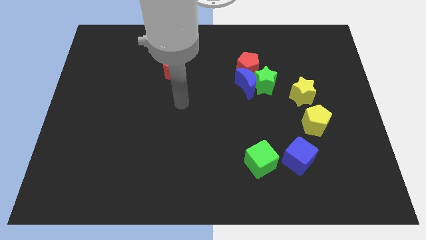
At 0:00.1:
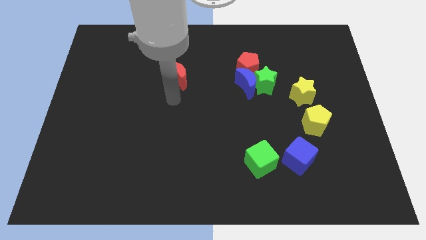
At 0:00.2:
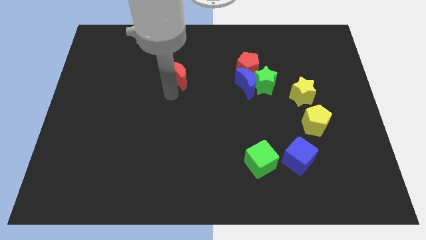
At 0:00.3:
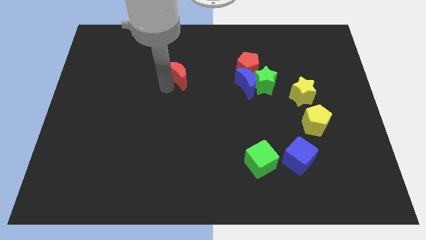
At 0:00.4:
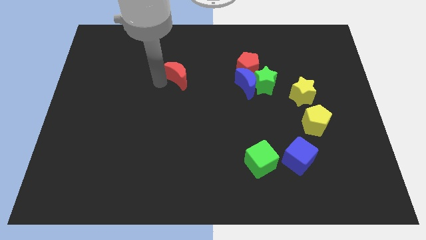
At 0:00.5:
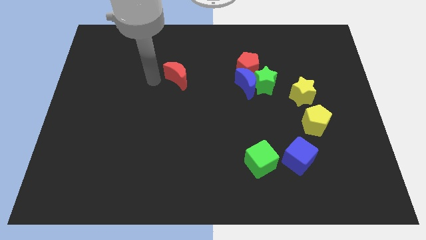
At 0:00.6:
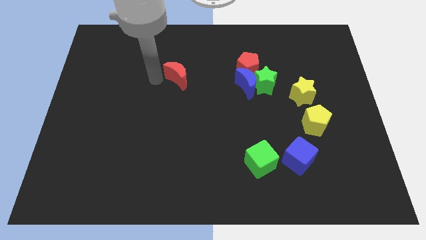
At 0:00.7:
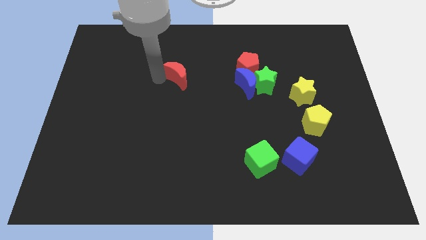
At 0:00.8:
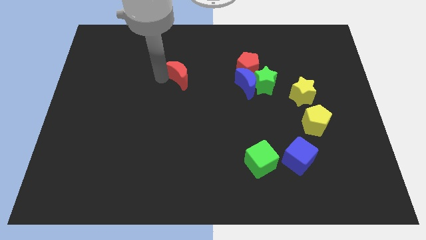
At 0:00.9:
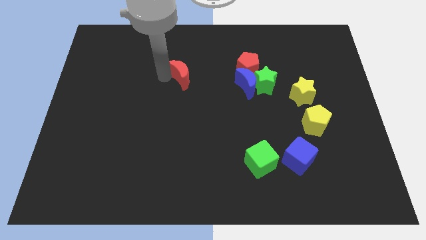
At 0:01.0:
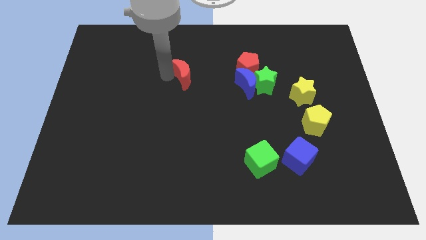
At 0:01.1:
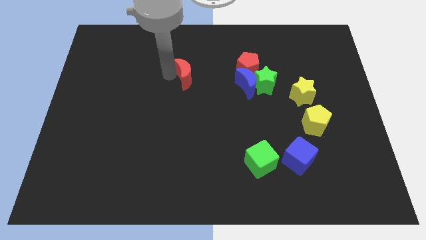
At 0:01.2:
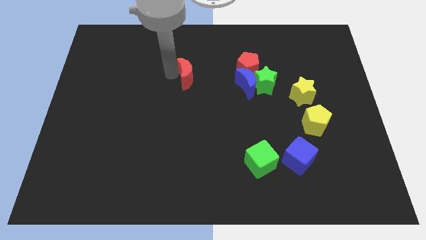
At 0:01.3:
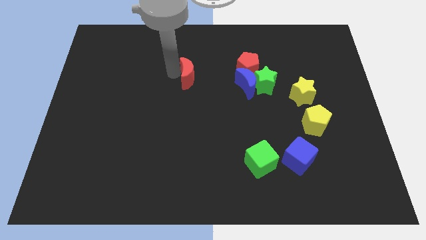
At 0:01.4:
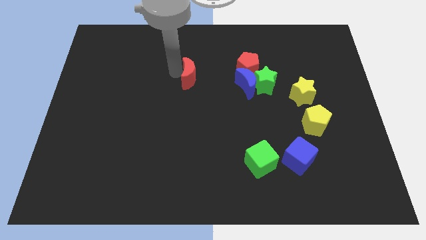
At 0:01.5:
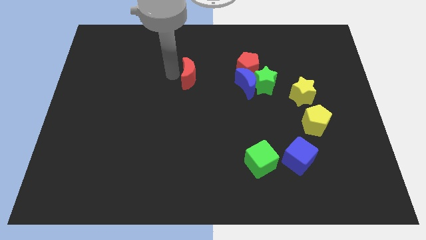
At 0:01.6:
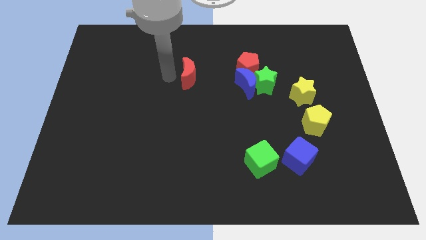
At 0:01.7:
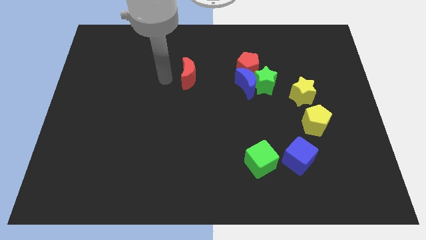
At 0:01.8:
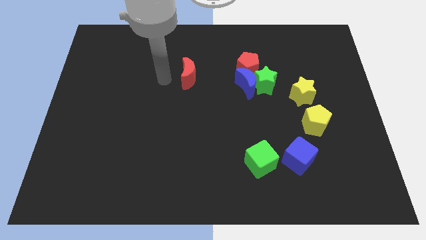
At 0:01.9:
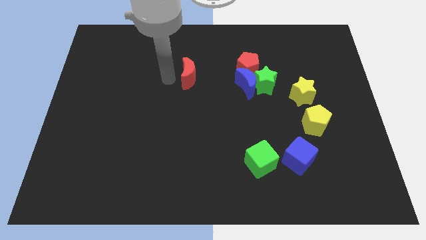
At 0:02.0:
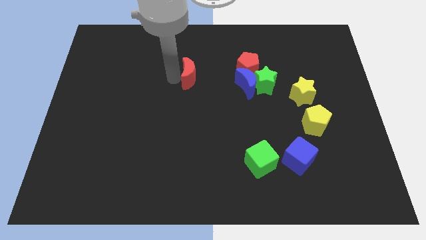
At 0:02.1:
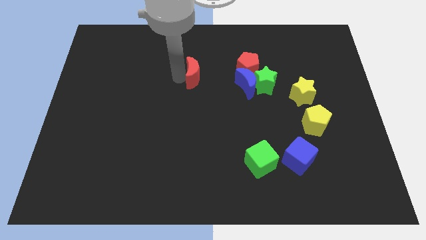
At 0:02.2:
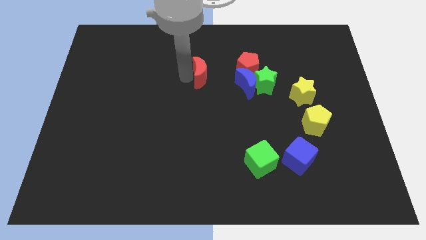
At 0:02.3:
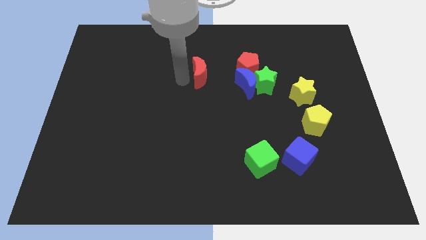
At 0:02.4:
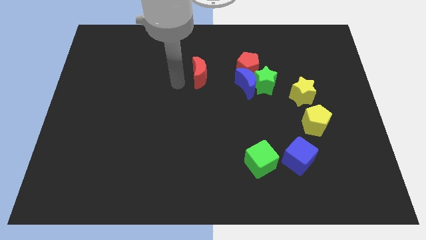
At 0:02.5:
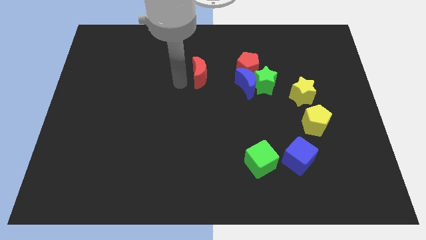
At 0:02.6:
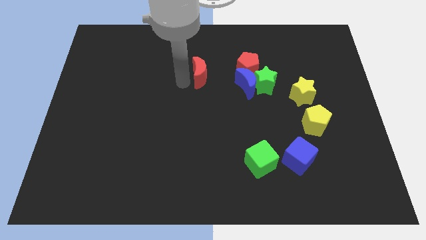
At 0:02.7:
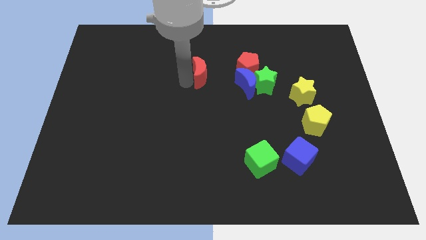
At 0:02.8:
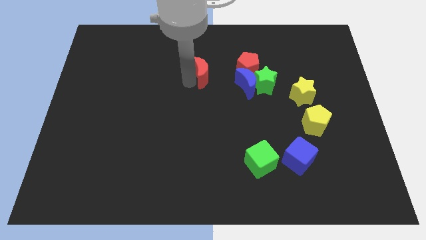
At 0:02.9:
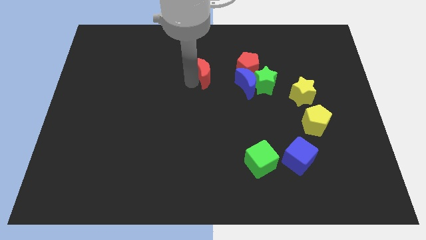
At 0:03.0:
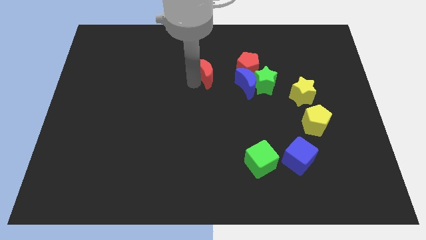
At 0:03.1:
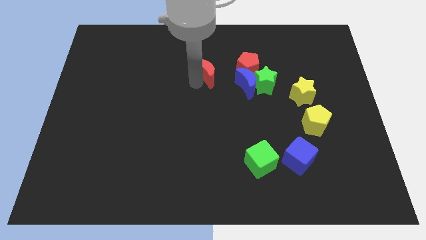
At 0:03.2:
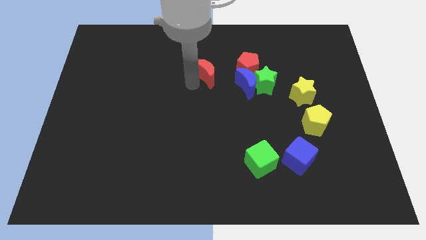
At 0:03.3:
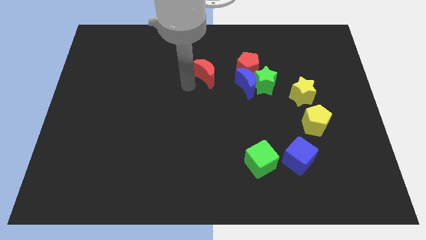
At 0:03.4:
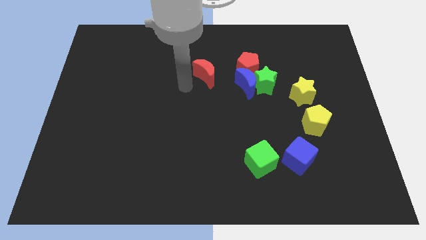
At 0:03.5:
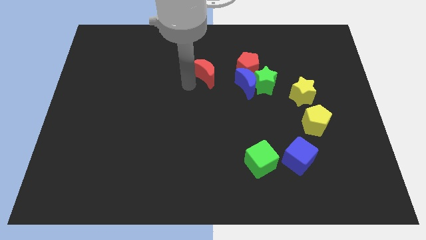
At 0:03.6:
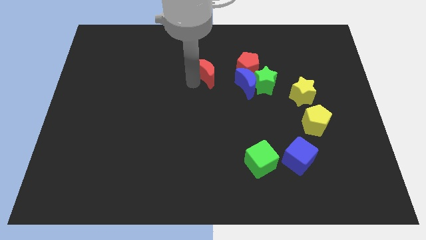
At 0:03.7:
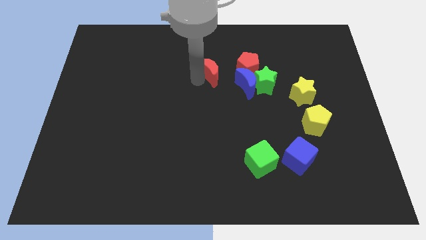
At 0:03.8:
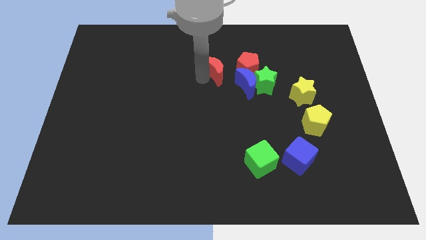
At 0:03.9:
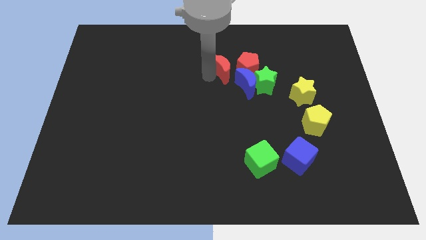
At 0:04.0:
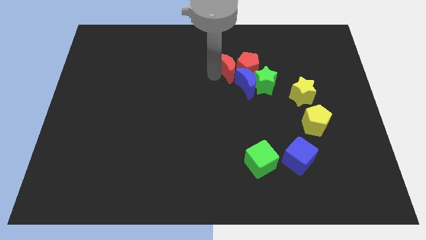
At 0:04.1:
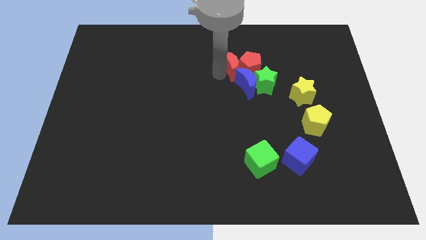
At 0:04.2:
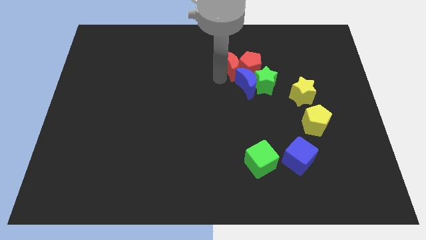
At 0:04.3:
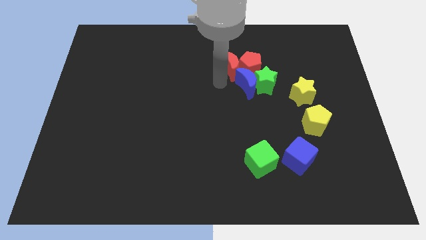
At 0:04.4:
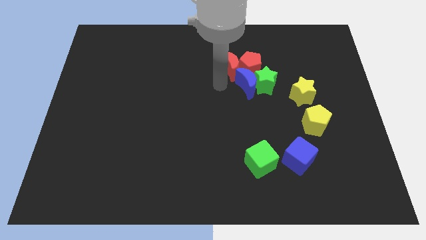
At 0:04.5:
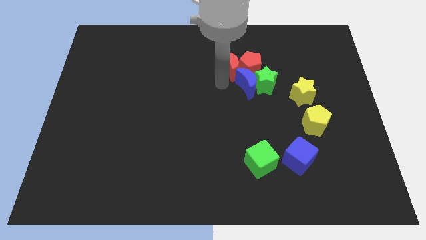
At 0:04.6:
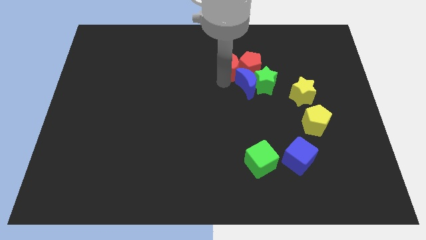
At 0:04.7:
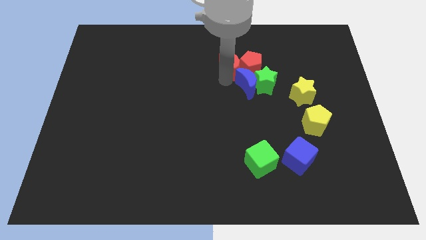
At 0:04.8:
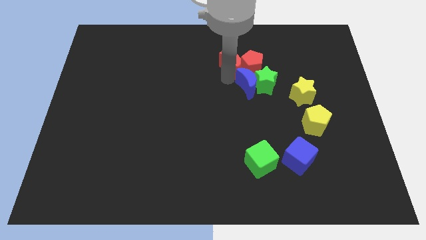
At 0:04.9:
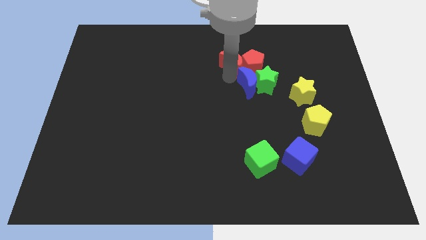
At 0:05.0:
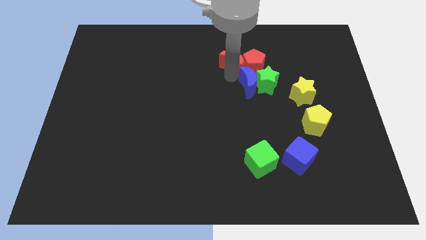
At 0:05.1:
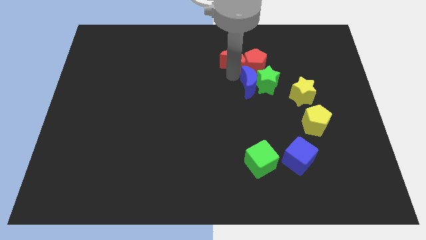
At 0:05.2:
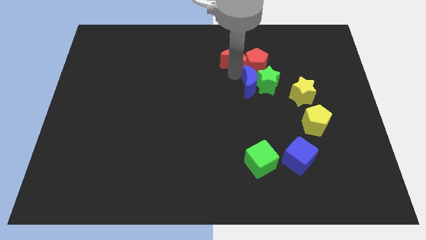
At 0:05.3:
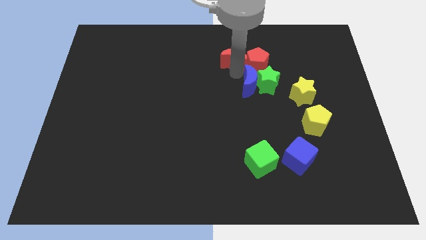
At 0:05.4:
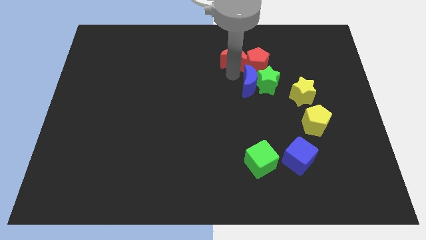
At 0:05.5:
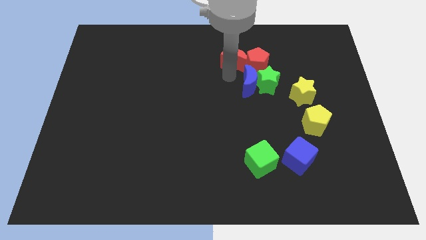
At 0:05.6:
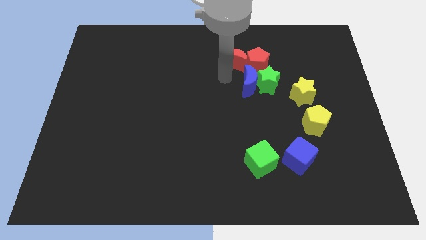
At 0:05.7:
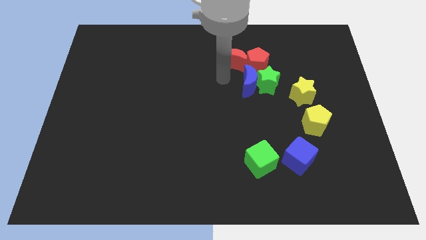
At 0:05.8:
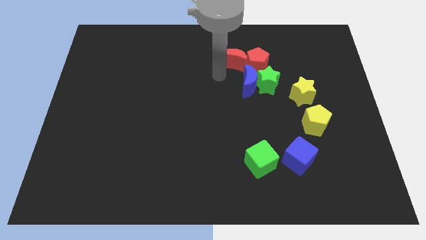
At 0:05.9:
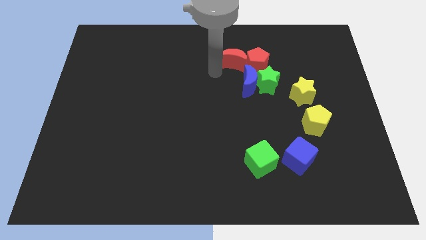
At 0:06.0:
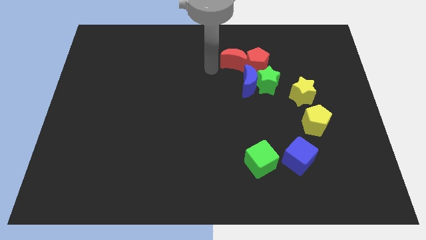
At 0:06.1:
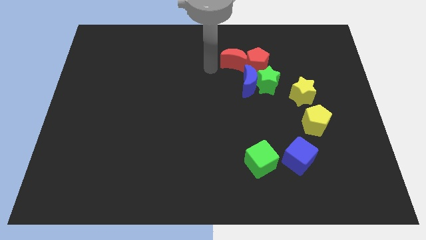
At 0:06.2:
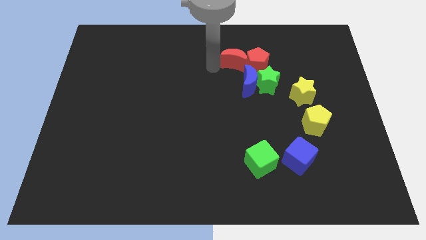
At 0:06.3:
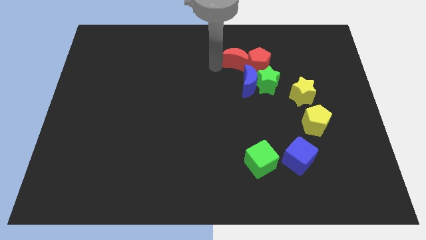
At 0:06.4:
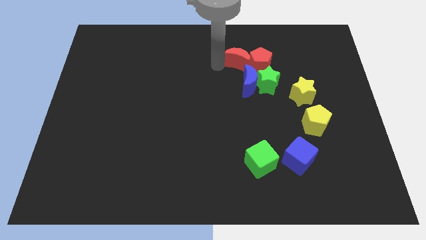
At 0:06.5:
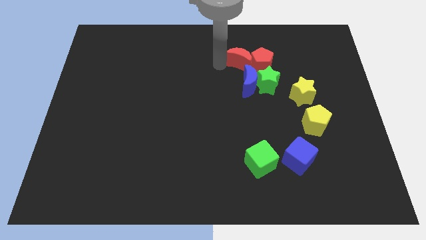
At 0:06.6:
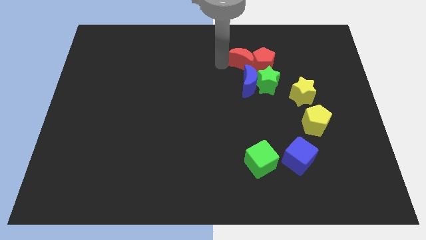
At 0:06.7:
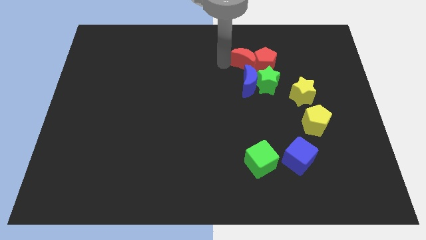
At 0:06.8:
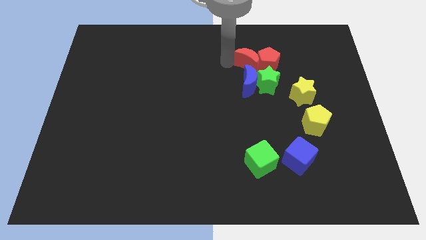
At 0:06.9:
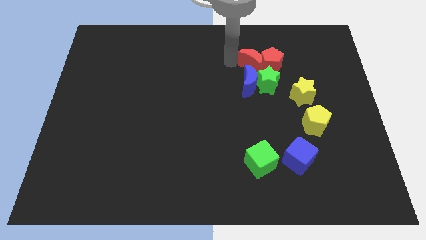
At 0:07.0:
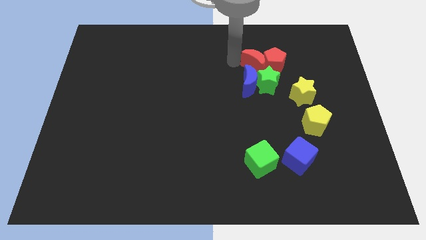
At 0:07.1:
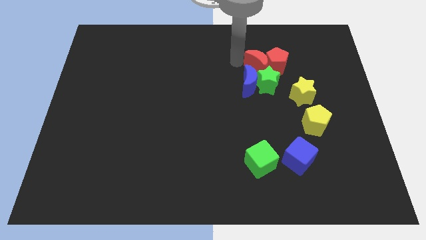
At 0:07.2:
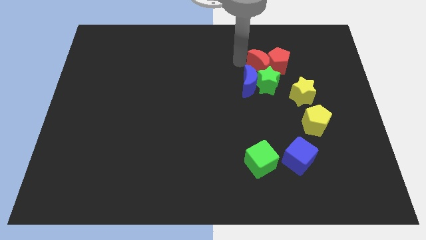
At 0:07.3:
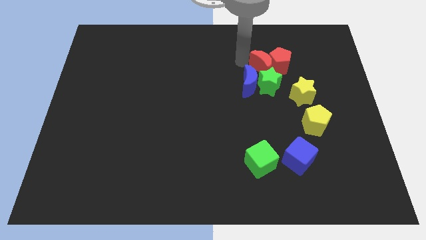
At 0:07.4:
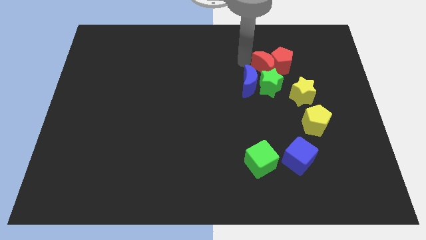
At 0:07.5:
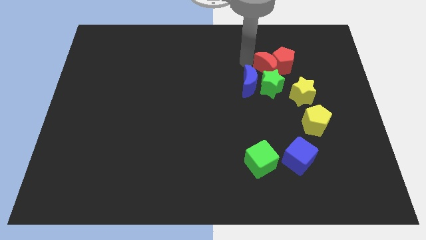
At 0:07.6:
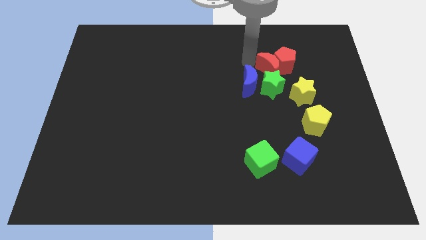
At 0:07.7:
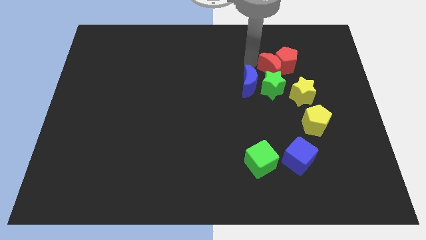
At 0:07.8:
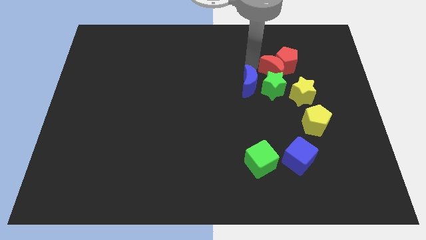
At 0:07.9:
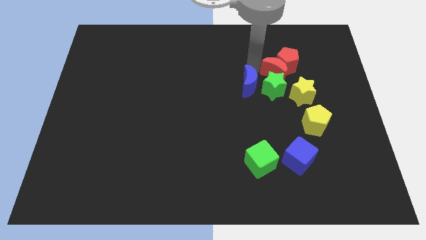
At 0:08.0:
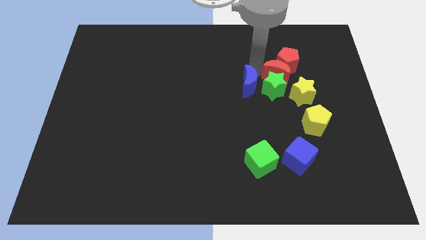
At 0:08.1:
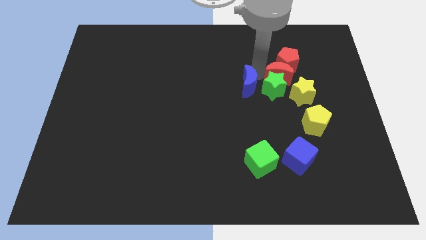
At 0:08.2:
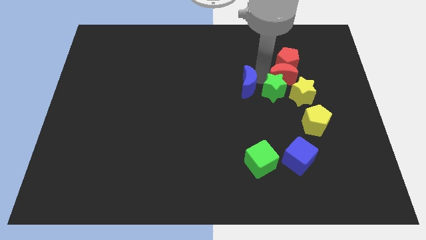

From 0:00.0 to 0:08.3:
put the red moon to the top of the yellow star
